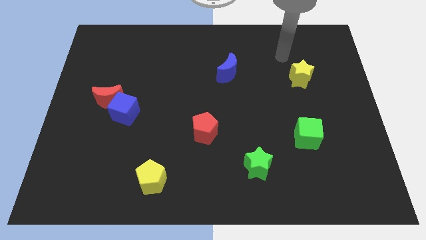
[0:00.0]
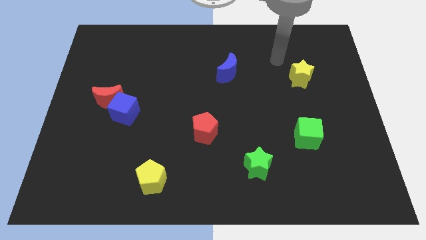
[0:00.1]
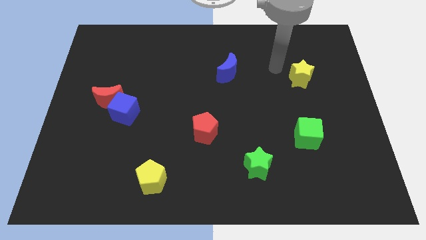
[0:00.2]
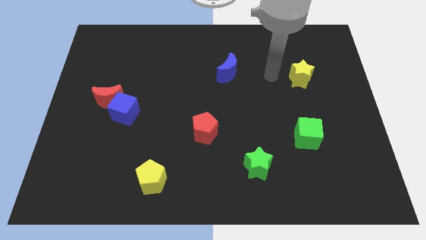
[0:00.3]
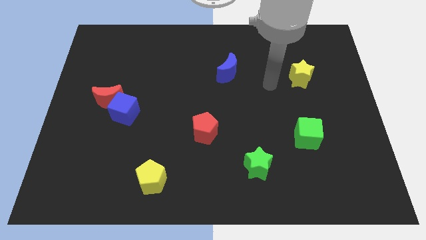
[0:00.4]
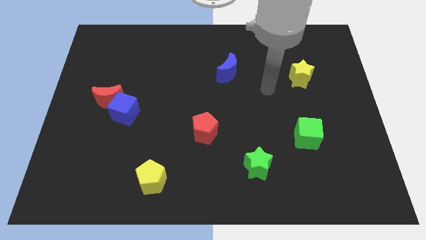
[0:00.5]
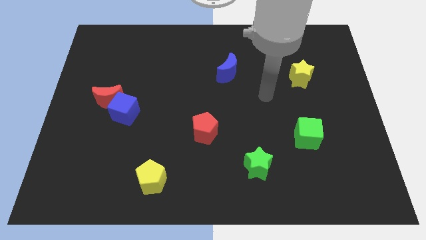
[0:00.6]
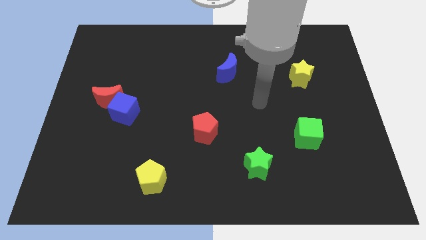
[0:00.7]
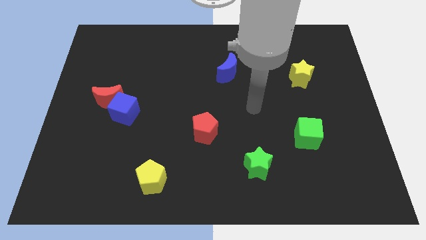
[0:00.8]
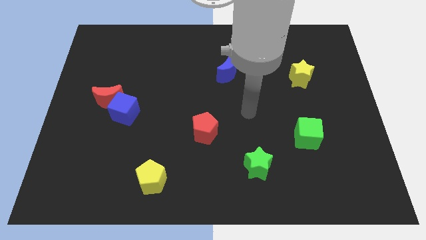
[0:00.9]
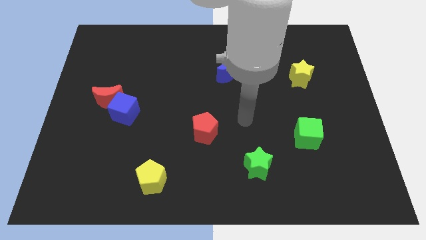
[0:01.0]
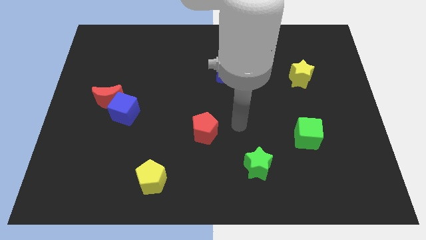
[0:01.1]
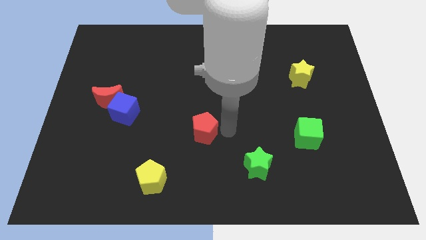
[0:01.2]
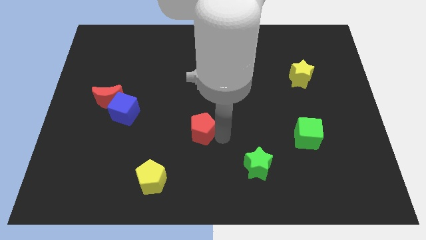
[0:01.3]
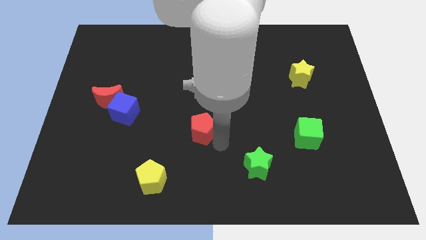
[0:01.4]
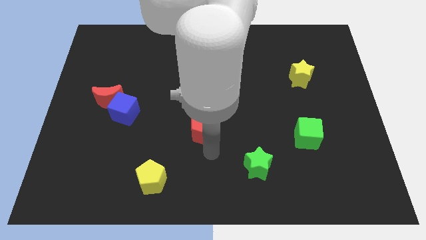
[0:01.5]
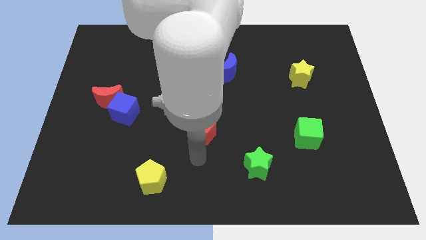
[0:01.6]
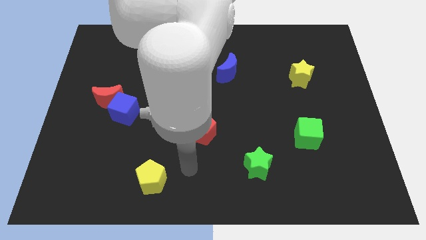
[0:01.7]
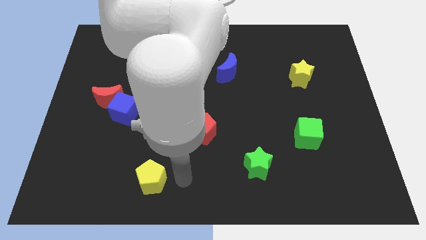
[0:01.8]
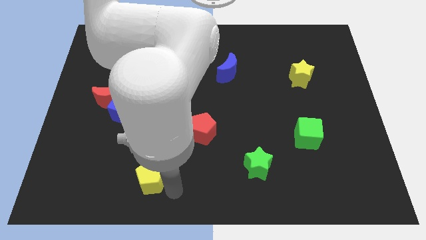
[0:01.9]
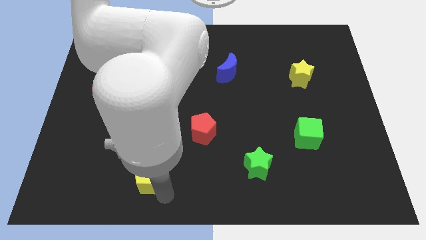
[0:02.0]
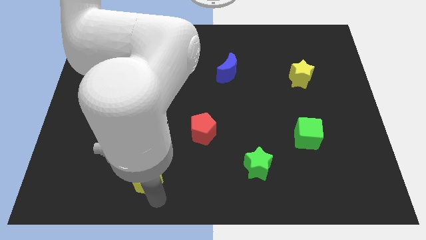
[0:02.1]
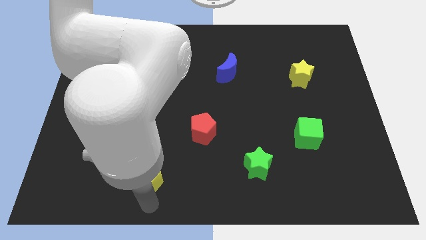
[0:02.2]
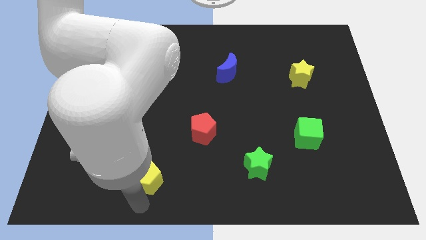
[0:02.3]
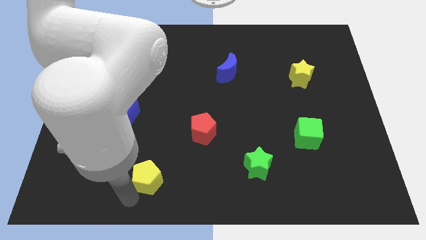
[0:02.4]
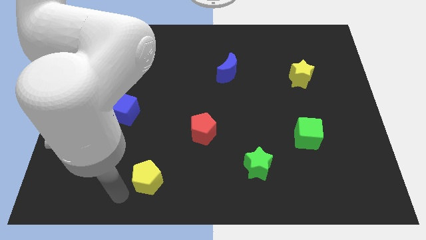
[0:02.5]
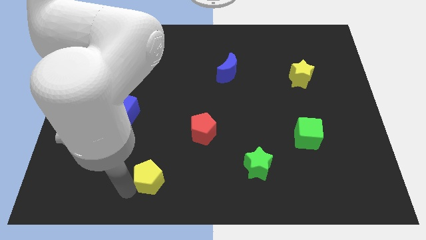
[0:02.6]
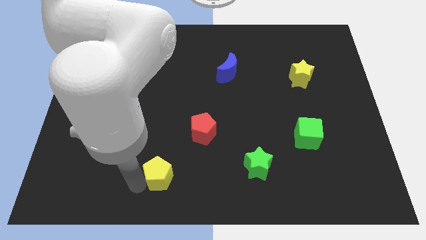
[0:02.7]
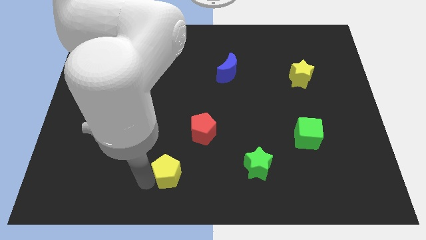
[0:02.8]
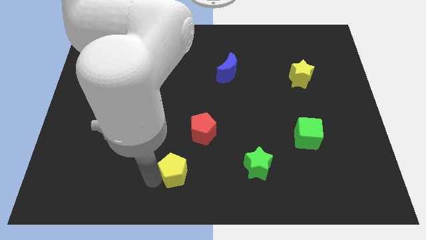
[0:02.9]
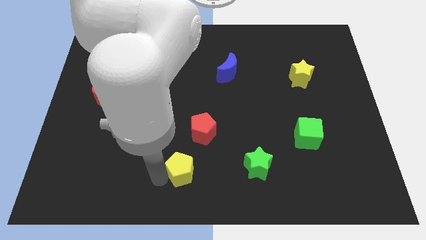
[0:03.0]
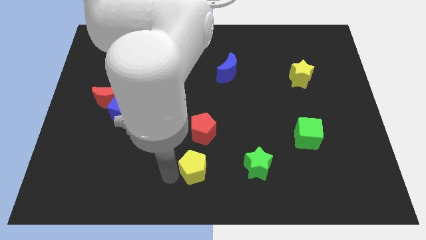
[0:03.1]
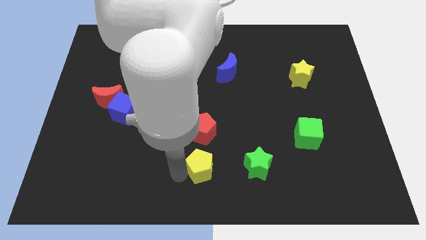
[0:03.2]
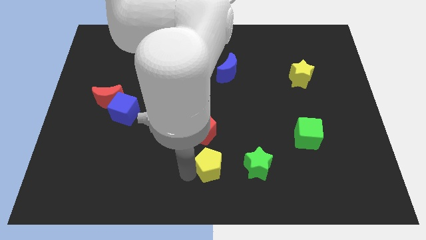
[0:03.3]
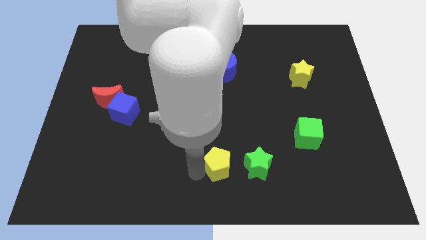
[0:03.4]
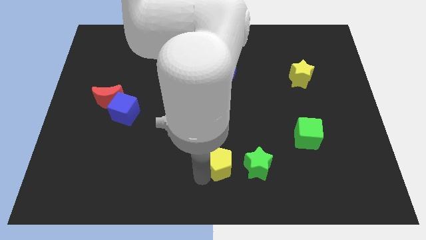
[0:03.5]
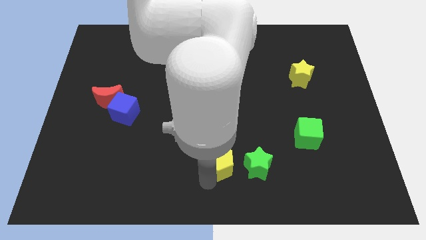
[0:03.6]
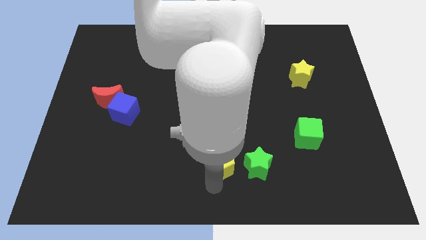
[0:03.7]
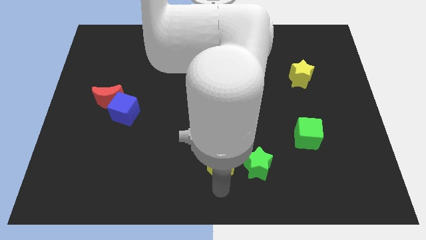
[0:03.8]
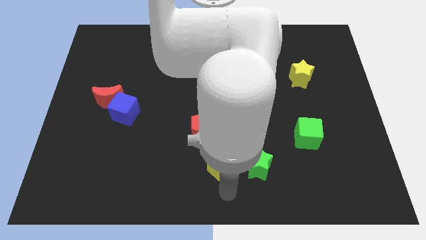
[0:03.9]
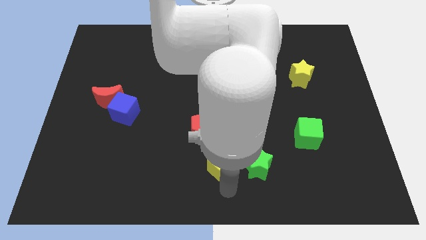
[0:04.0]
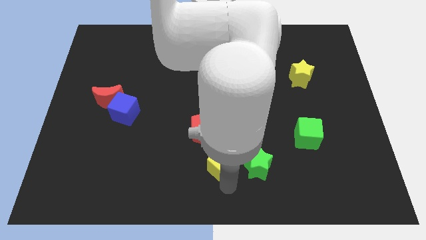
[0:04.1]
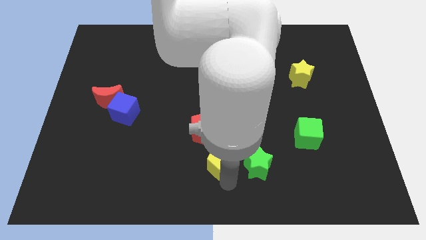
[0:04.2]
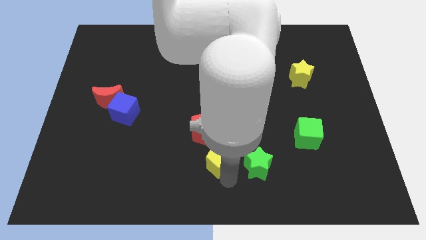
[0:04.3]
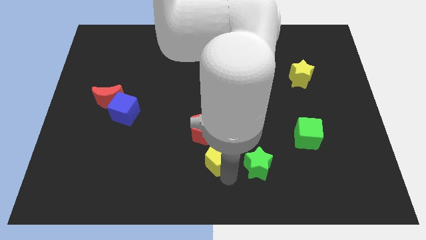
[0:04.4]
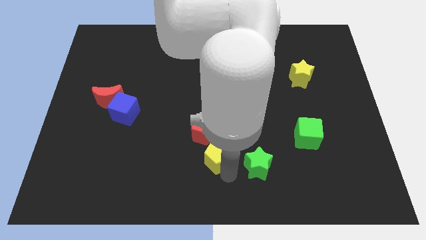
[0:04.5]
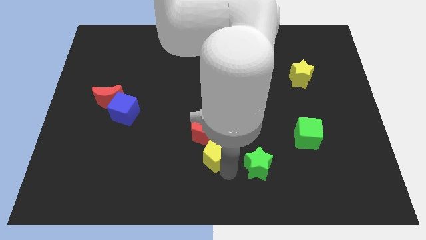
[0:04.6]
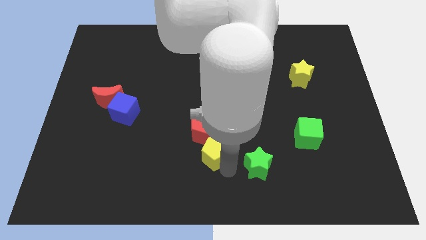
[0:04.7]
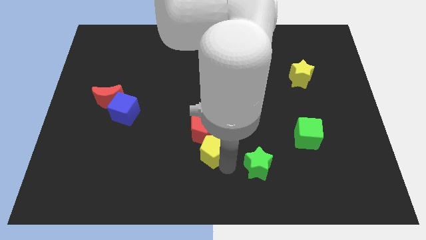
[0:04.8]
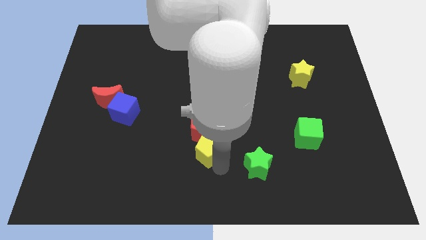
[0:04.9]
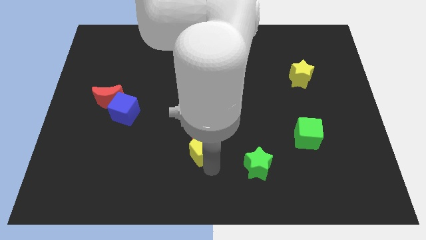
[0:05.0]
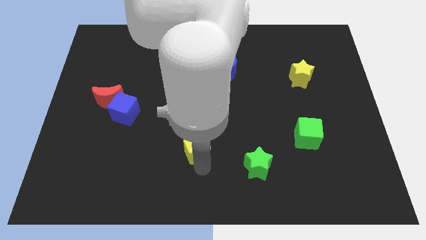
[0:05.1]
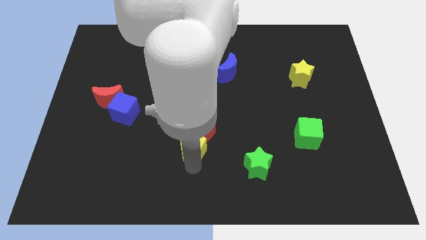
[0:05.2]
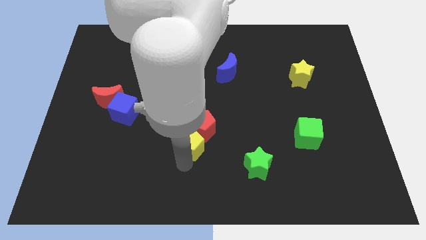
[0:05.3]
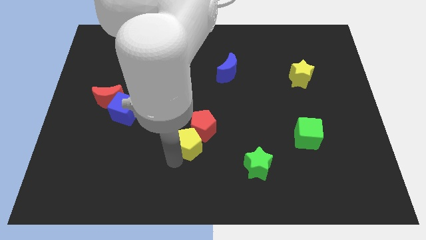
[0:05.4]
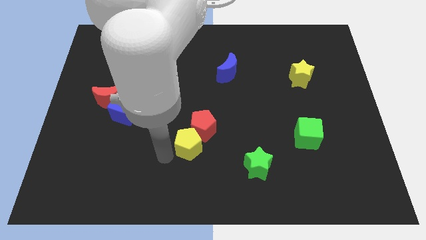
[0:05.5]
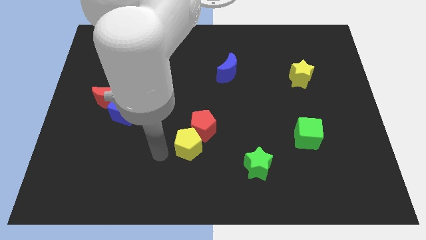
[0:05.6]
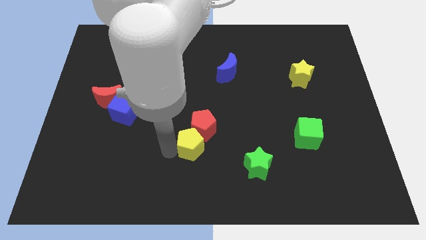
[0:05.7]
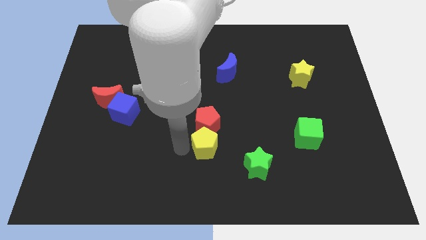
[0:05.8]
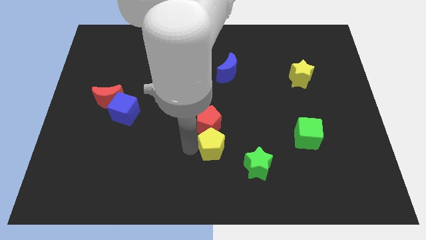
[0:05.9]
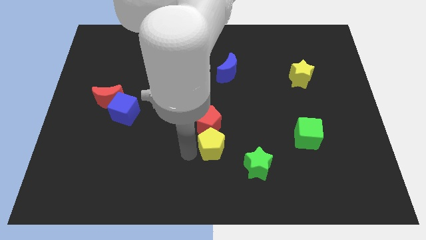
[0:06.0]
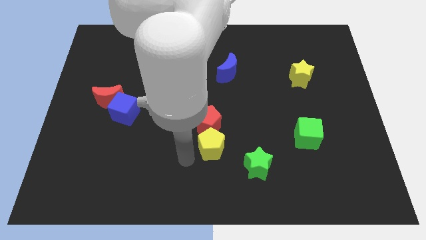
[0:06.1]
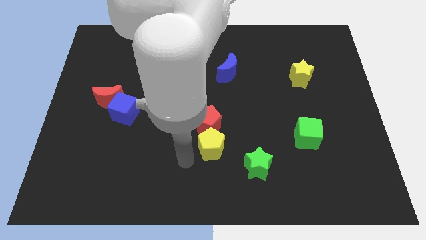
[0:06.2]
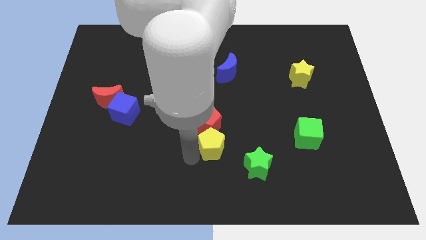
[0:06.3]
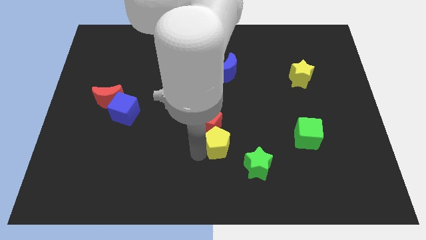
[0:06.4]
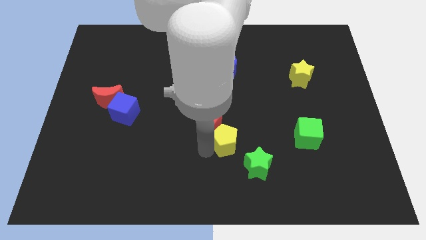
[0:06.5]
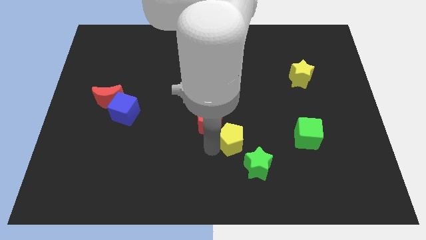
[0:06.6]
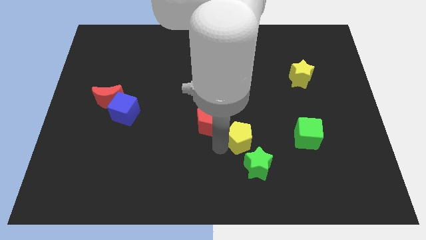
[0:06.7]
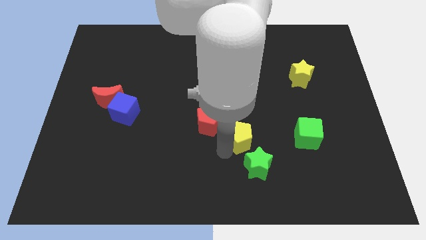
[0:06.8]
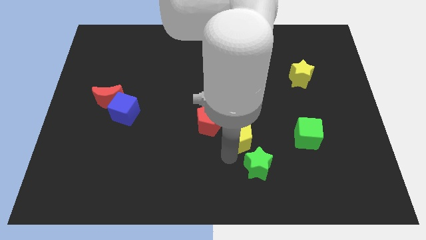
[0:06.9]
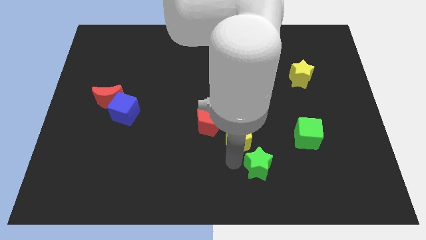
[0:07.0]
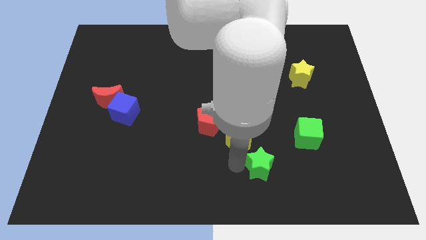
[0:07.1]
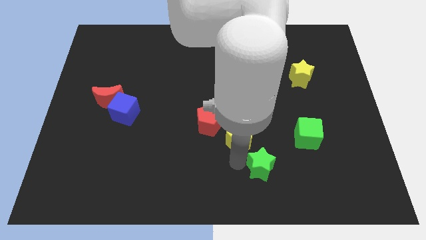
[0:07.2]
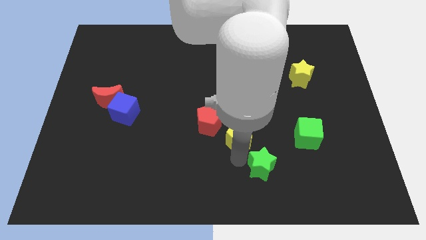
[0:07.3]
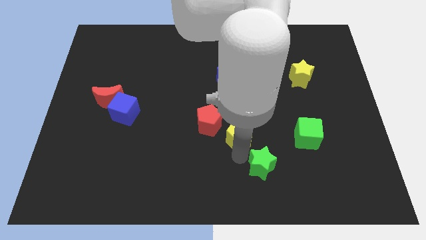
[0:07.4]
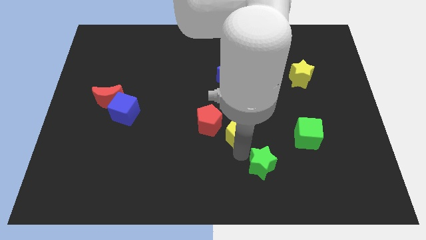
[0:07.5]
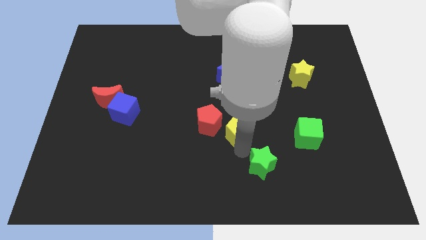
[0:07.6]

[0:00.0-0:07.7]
slide the yellow pentagon upwards and then to the right
